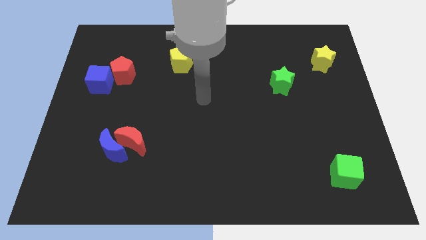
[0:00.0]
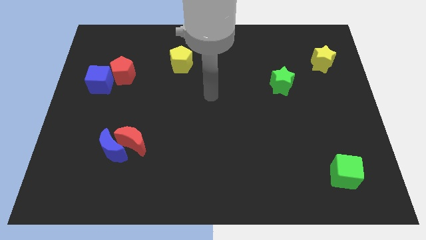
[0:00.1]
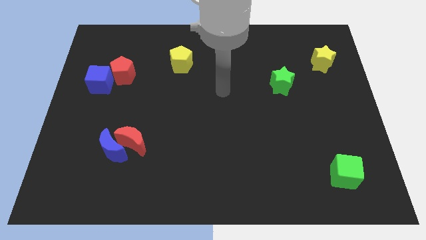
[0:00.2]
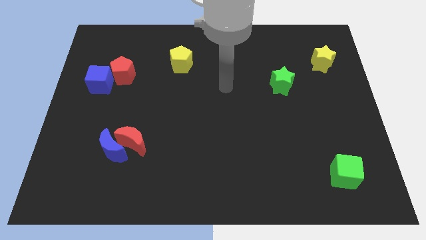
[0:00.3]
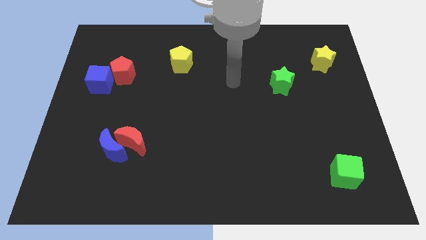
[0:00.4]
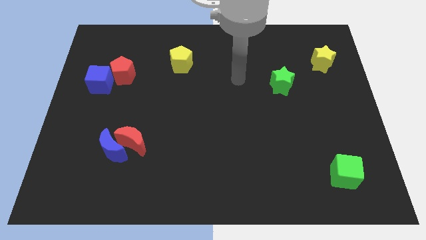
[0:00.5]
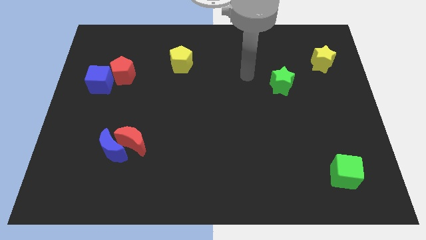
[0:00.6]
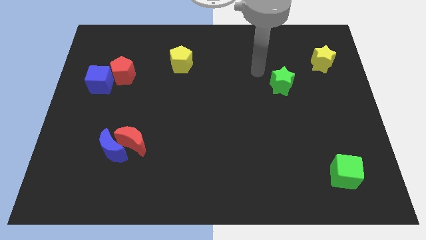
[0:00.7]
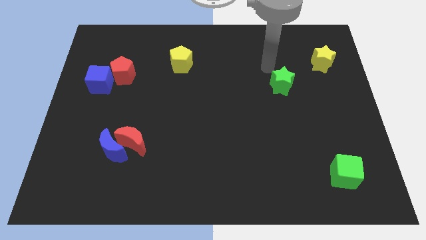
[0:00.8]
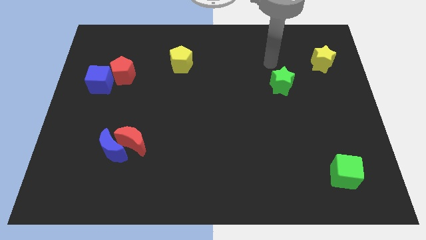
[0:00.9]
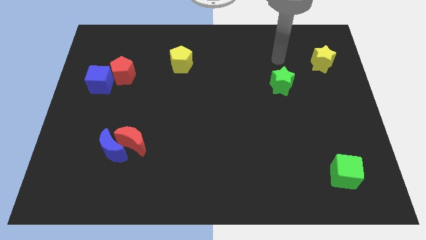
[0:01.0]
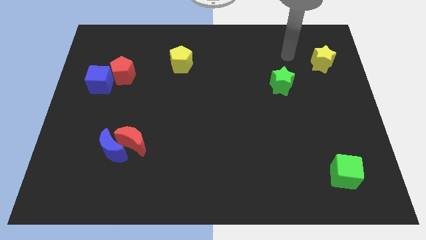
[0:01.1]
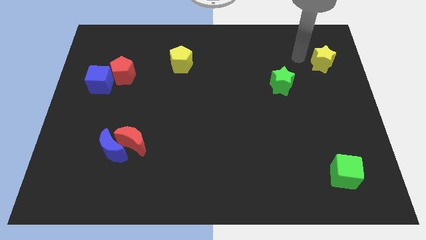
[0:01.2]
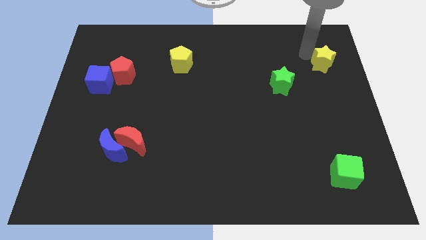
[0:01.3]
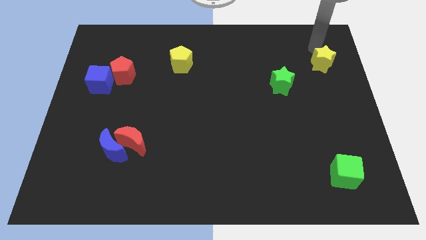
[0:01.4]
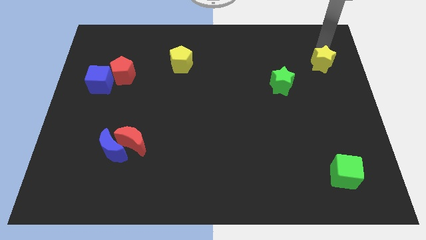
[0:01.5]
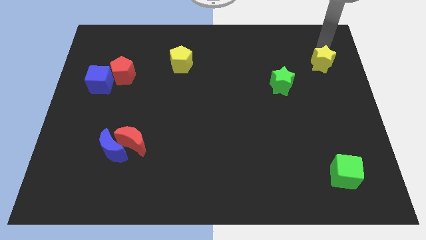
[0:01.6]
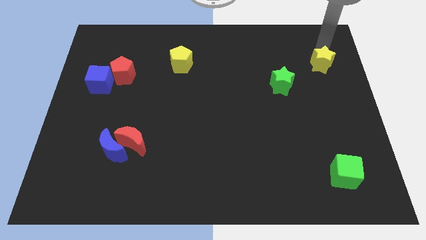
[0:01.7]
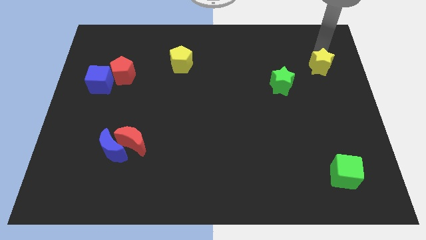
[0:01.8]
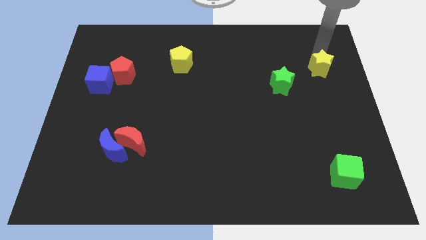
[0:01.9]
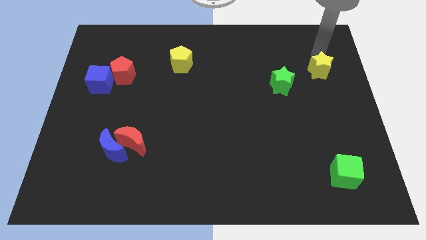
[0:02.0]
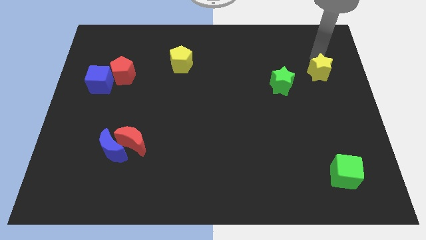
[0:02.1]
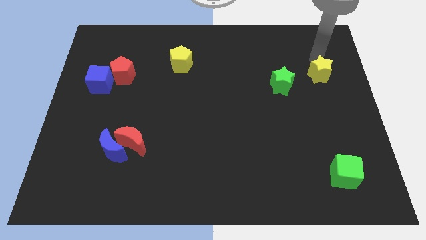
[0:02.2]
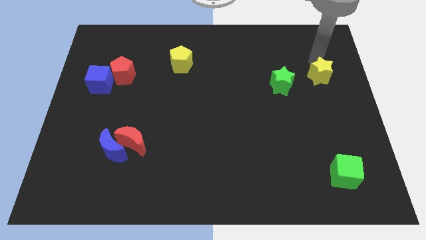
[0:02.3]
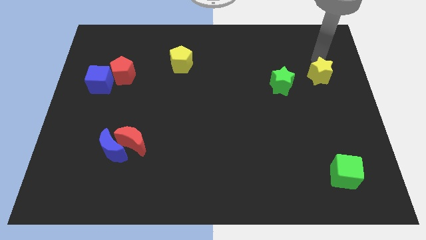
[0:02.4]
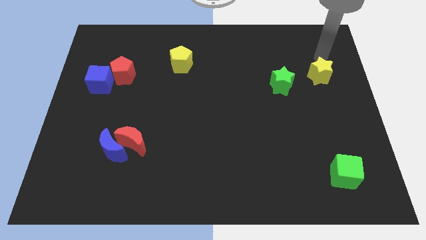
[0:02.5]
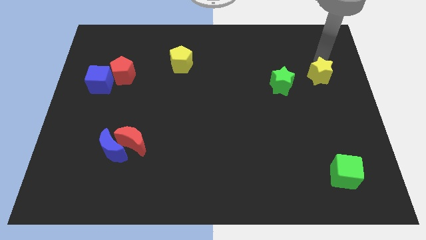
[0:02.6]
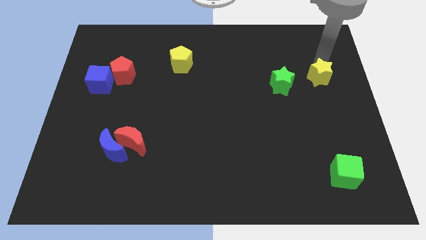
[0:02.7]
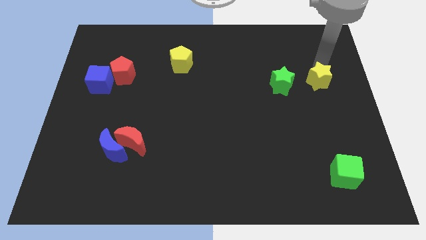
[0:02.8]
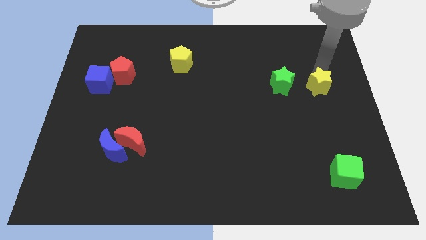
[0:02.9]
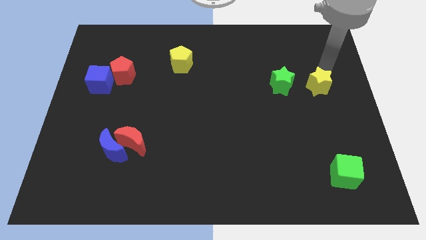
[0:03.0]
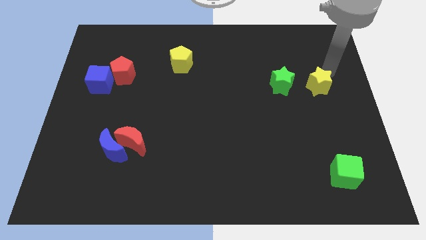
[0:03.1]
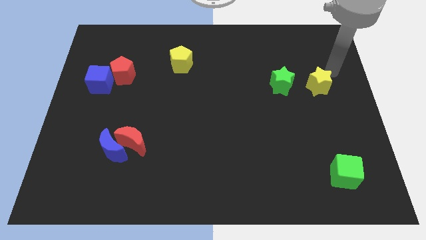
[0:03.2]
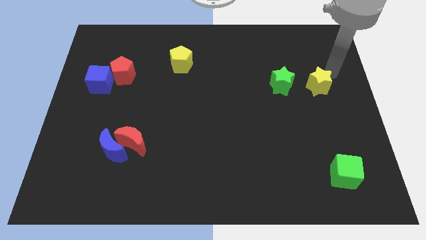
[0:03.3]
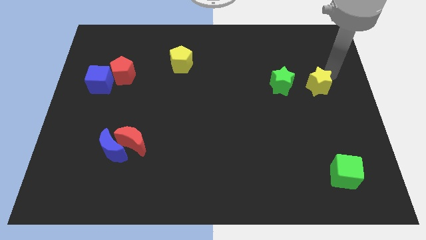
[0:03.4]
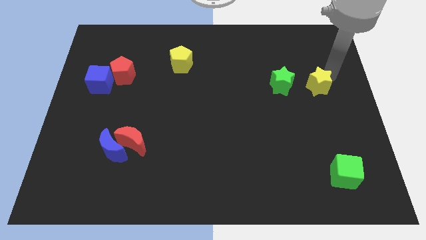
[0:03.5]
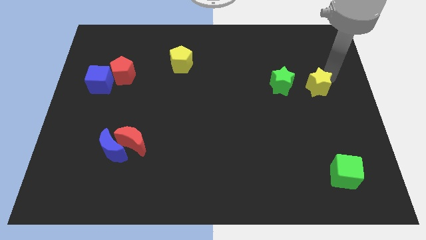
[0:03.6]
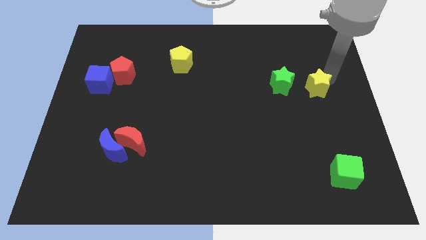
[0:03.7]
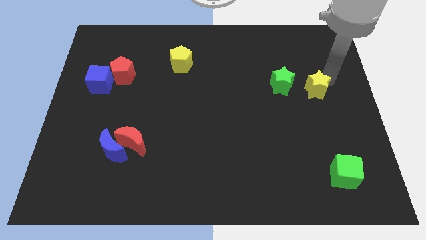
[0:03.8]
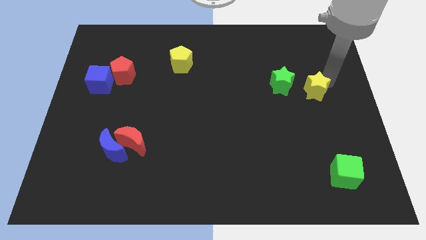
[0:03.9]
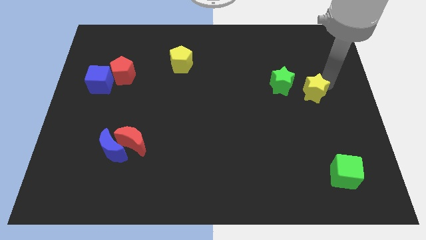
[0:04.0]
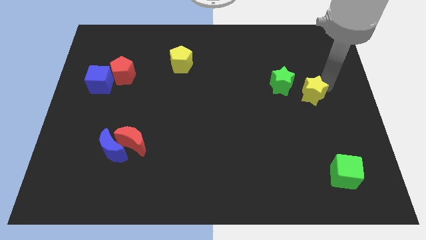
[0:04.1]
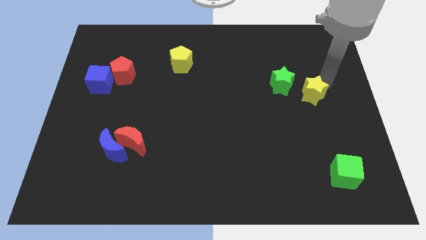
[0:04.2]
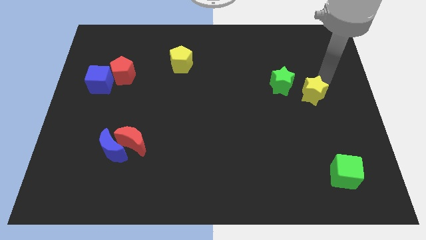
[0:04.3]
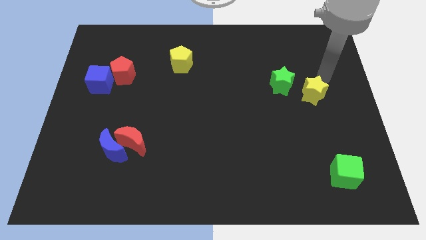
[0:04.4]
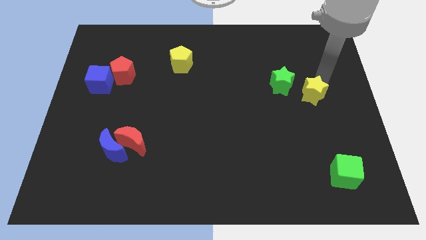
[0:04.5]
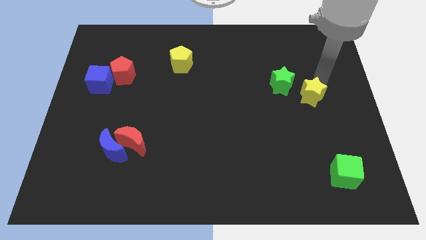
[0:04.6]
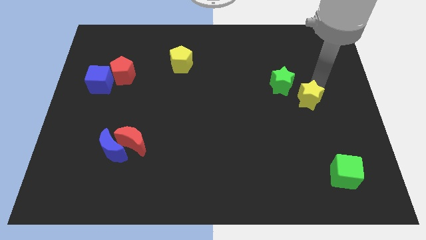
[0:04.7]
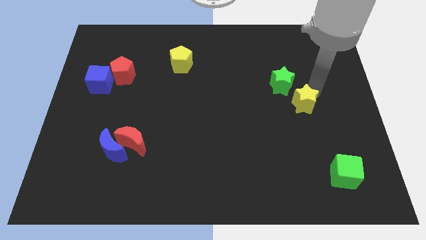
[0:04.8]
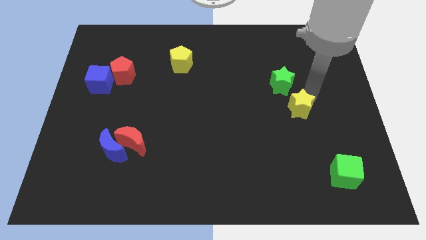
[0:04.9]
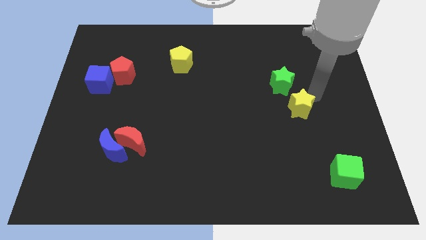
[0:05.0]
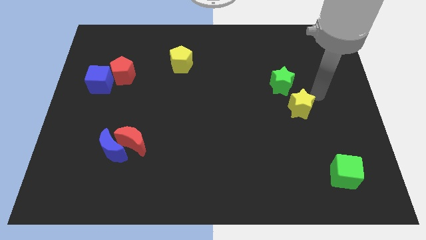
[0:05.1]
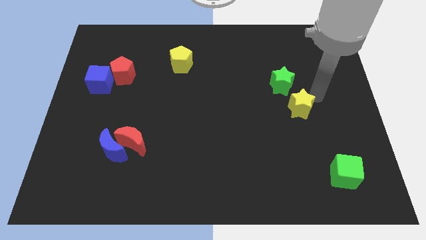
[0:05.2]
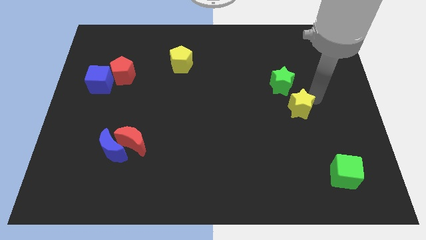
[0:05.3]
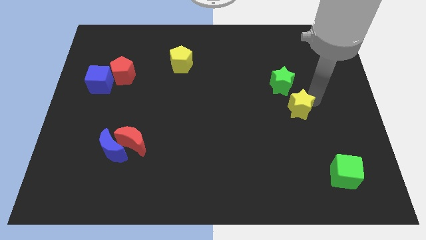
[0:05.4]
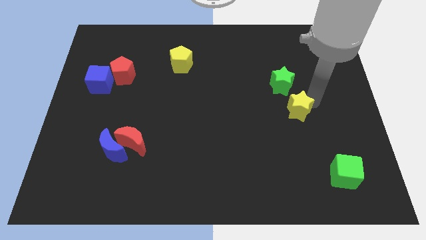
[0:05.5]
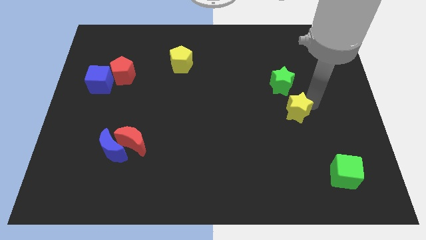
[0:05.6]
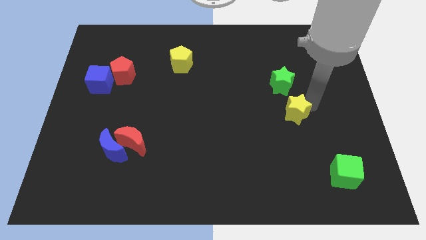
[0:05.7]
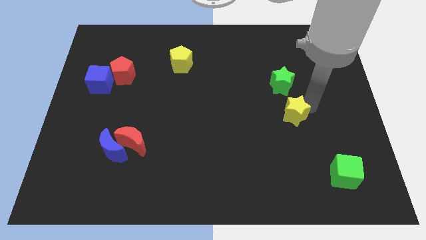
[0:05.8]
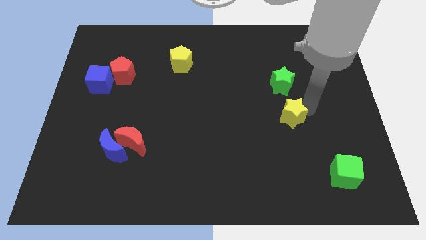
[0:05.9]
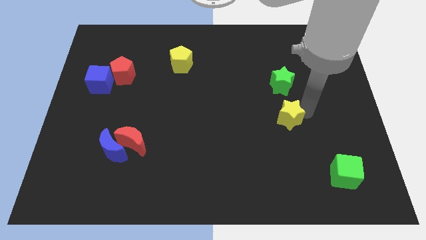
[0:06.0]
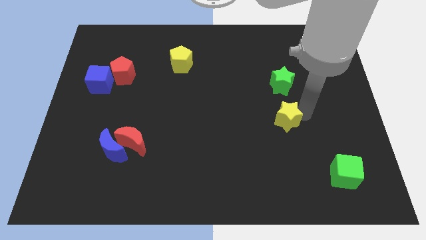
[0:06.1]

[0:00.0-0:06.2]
move the yellow star downwards and to the left diagonally

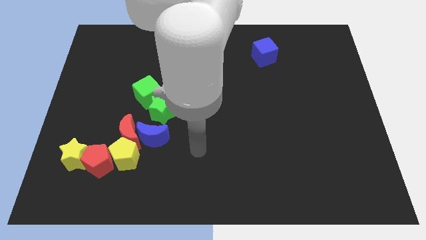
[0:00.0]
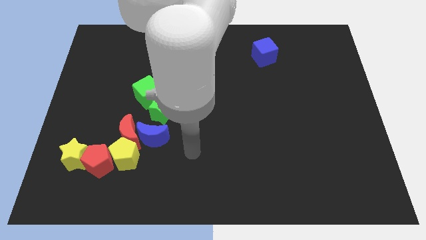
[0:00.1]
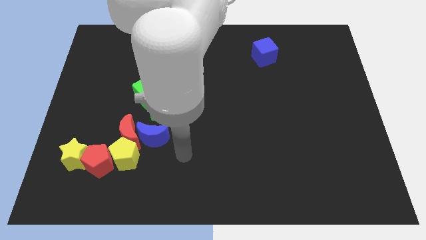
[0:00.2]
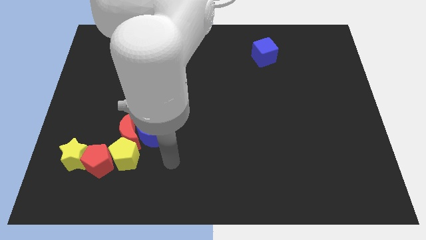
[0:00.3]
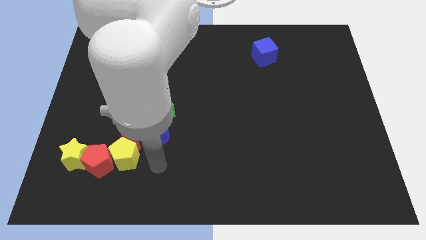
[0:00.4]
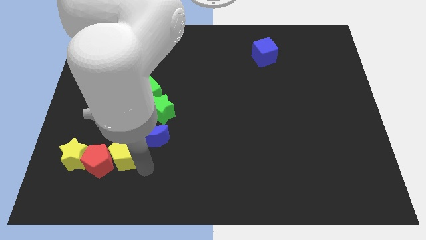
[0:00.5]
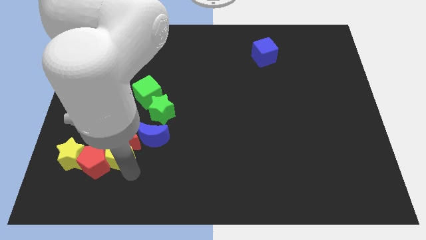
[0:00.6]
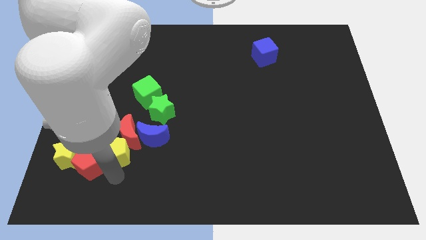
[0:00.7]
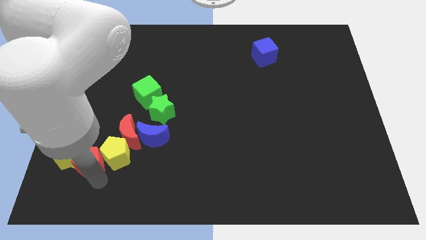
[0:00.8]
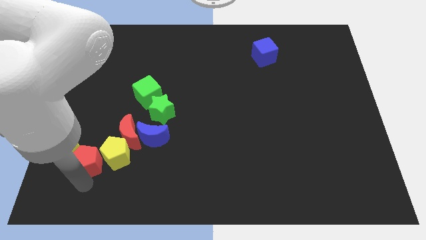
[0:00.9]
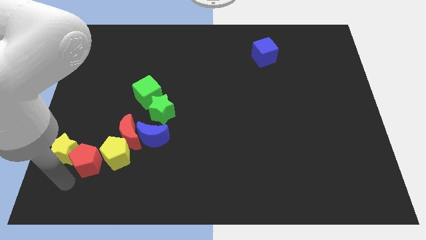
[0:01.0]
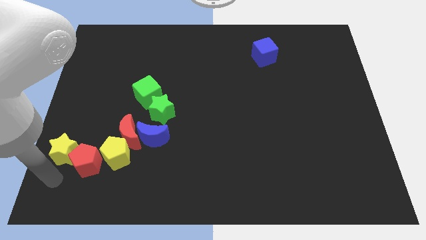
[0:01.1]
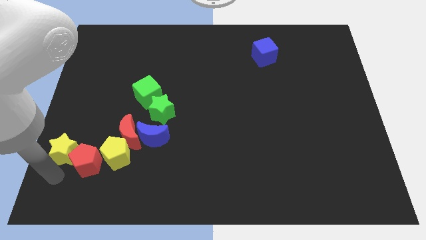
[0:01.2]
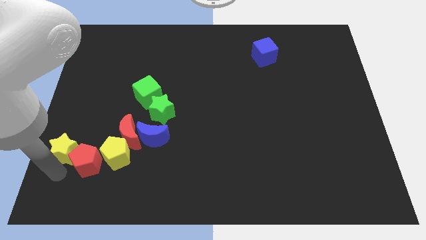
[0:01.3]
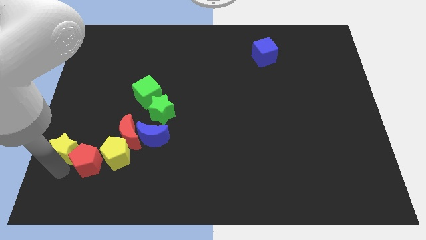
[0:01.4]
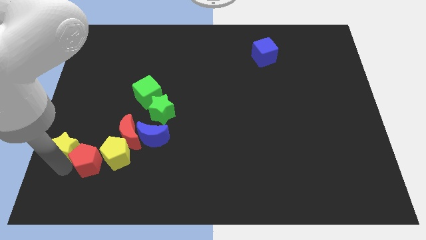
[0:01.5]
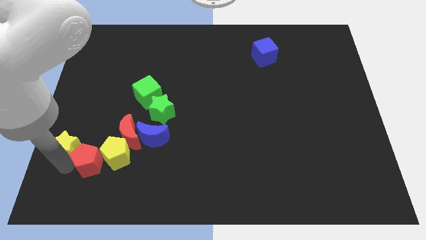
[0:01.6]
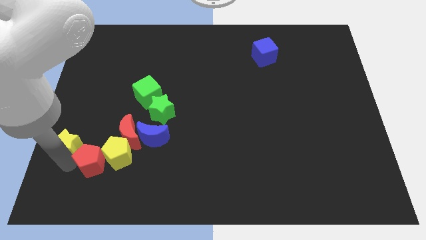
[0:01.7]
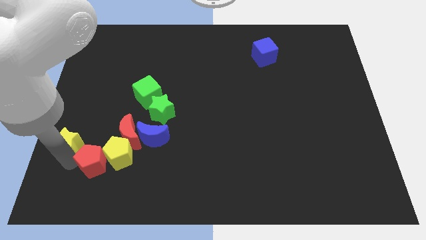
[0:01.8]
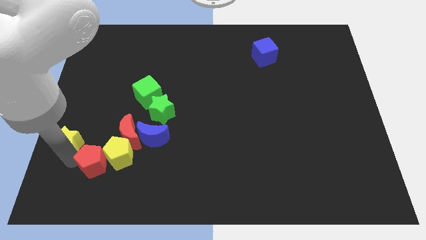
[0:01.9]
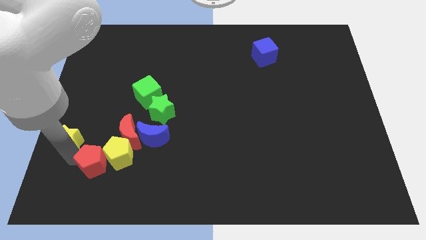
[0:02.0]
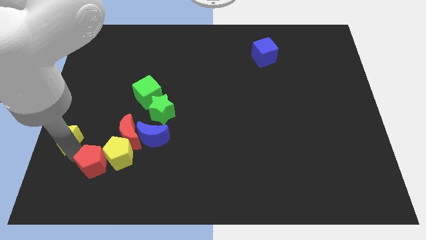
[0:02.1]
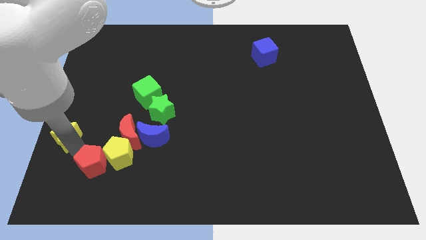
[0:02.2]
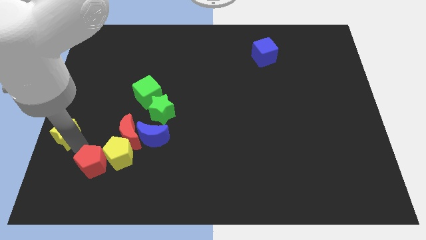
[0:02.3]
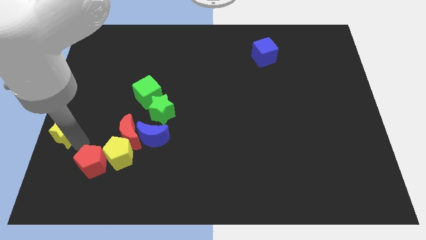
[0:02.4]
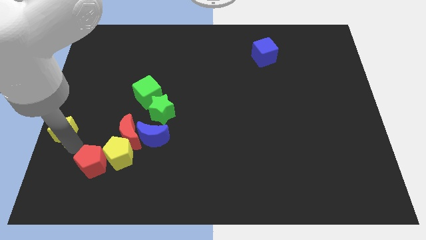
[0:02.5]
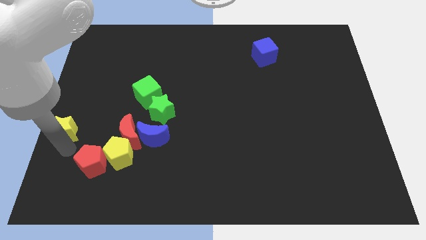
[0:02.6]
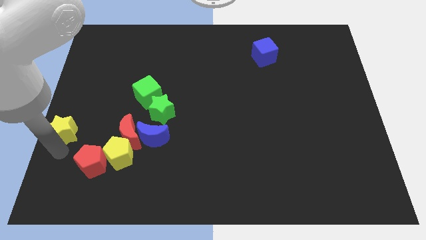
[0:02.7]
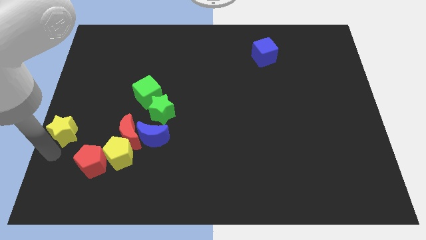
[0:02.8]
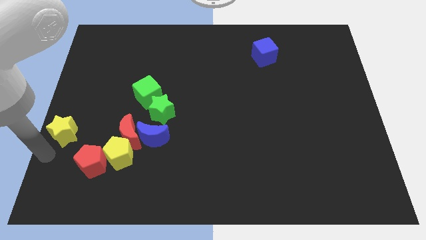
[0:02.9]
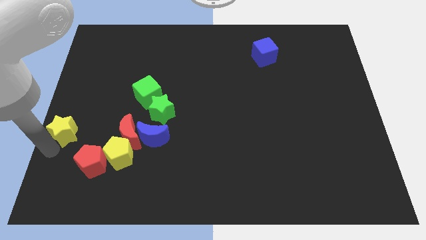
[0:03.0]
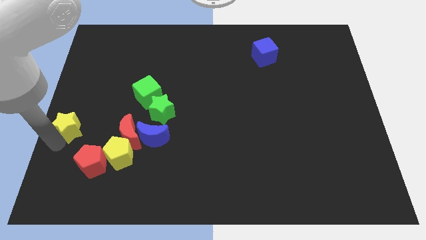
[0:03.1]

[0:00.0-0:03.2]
move the yellow star a little bit upwards
